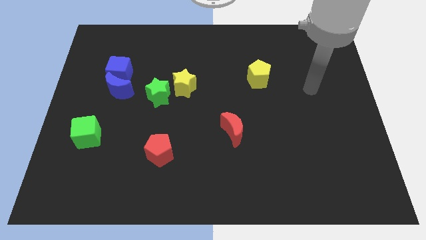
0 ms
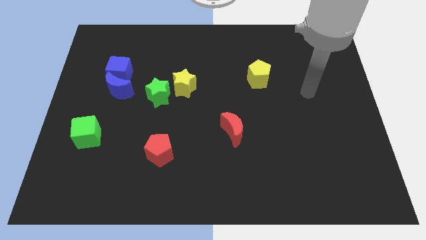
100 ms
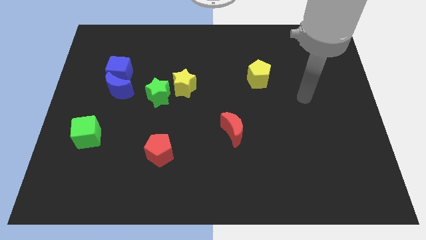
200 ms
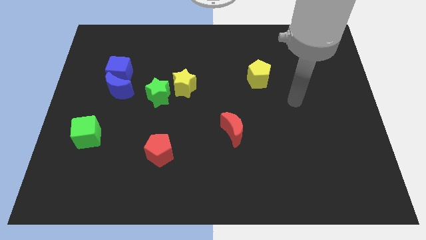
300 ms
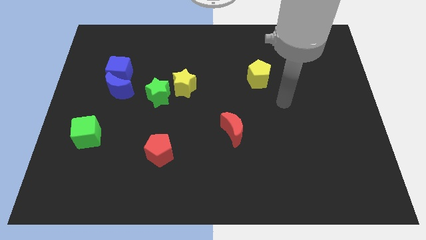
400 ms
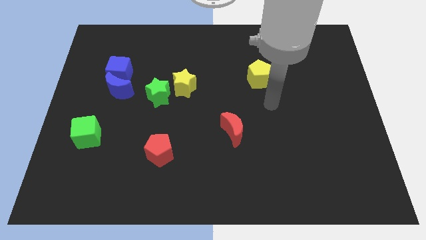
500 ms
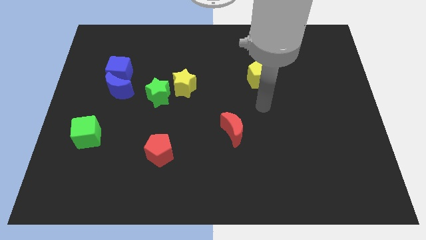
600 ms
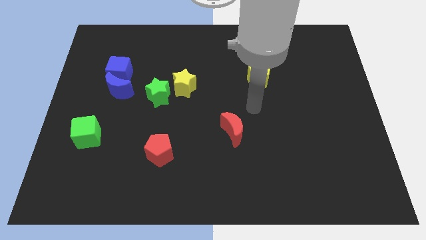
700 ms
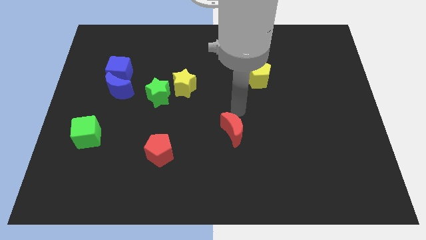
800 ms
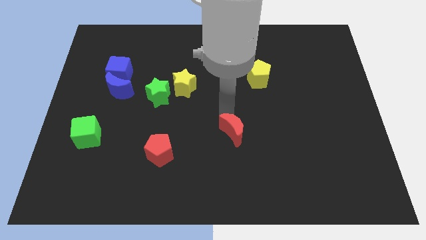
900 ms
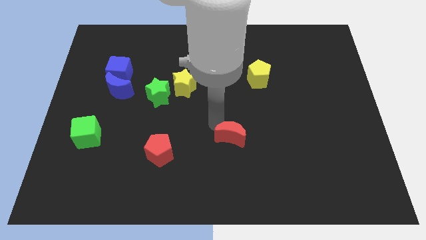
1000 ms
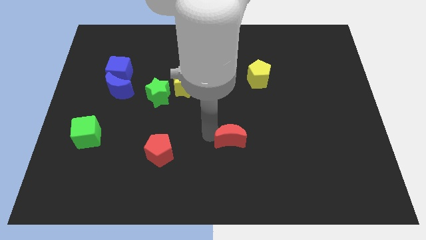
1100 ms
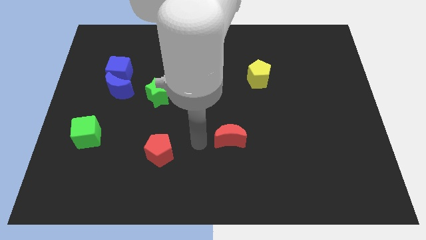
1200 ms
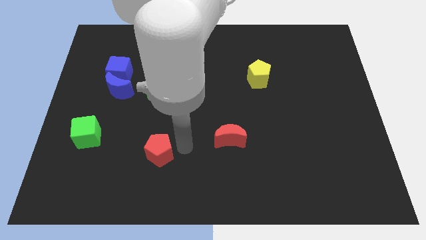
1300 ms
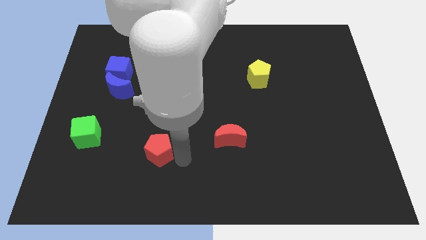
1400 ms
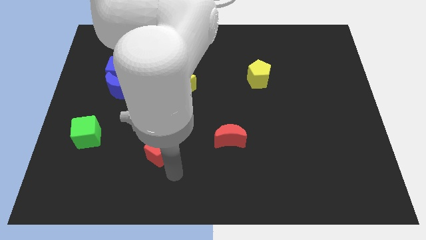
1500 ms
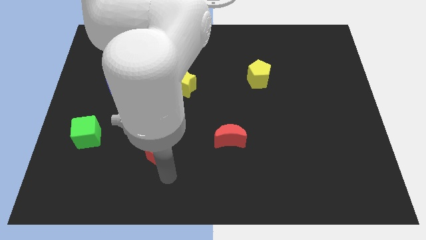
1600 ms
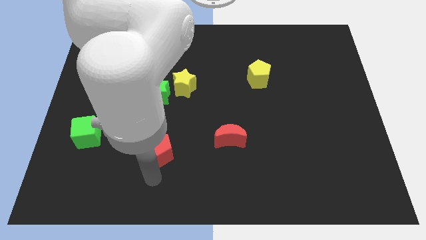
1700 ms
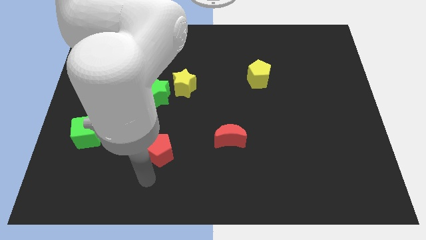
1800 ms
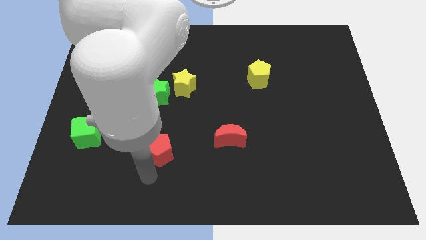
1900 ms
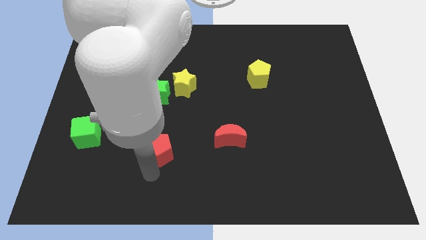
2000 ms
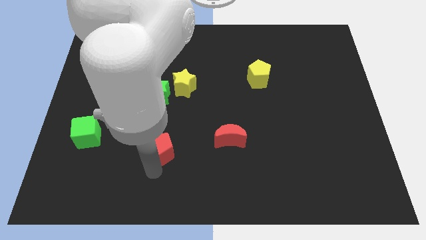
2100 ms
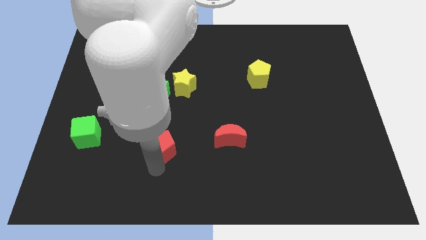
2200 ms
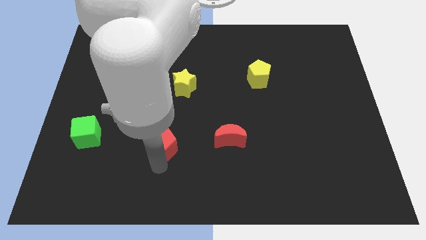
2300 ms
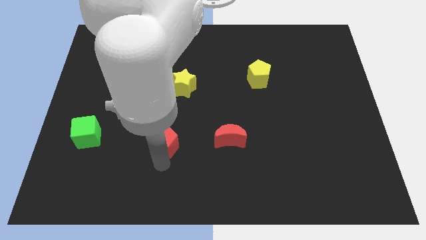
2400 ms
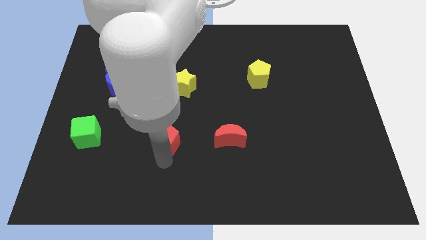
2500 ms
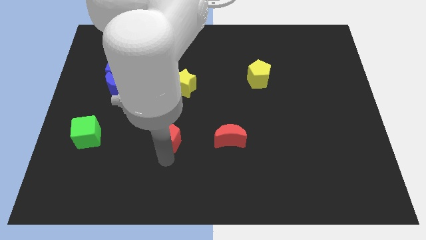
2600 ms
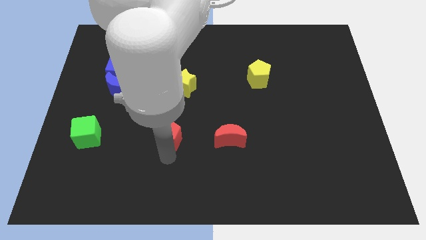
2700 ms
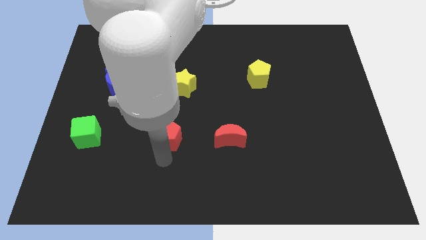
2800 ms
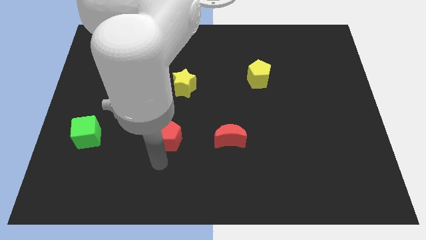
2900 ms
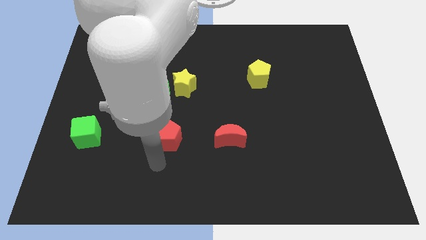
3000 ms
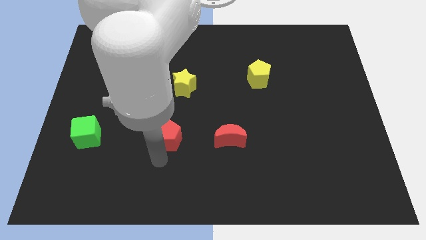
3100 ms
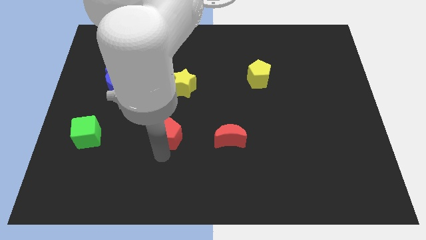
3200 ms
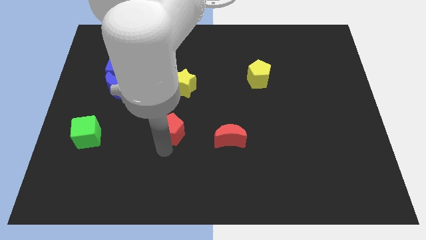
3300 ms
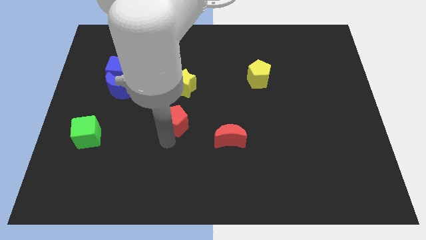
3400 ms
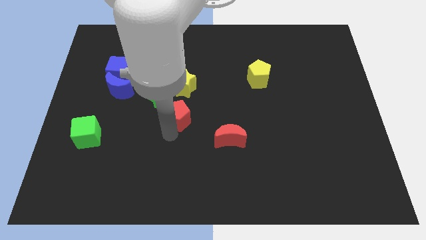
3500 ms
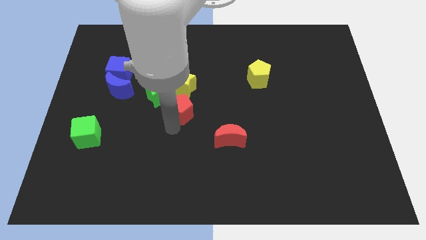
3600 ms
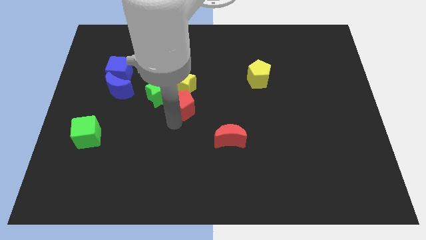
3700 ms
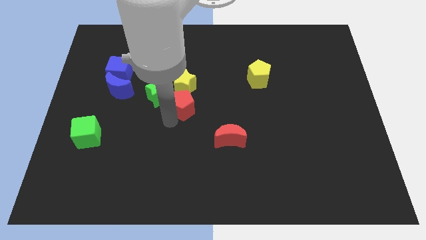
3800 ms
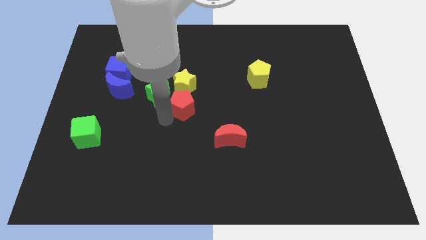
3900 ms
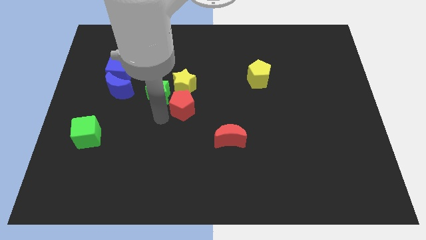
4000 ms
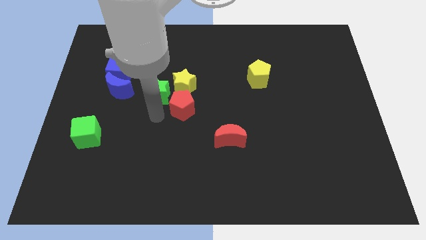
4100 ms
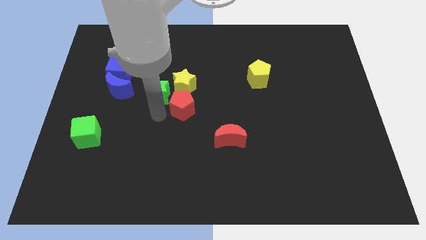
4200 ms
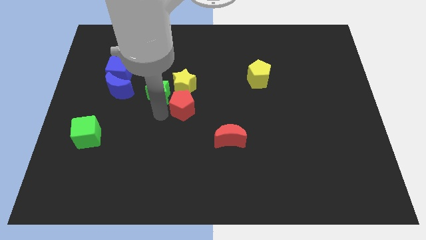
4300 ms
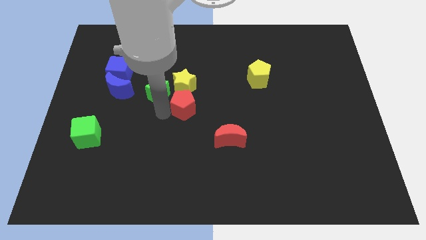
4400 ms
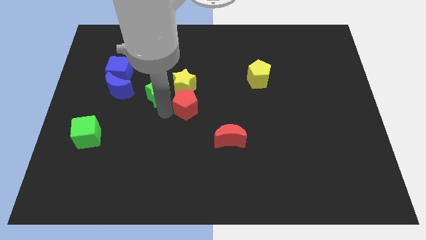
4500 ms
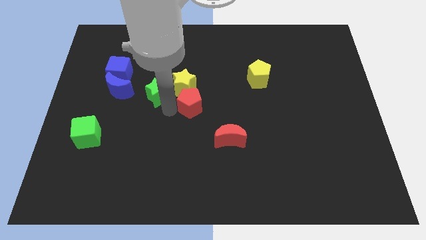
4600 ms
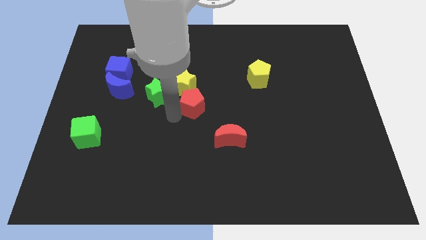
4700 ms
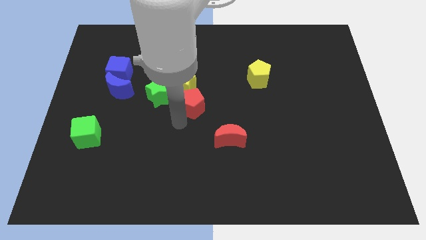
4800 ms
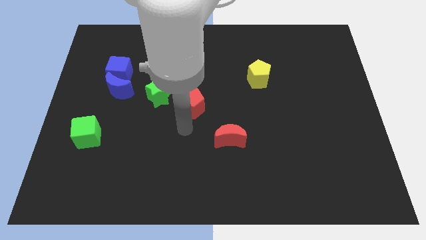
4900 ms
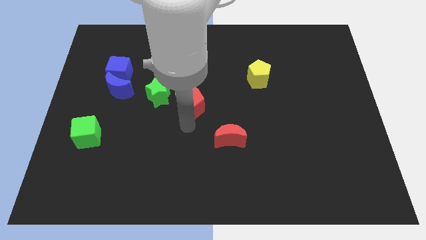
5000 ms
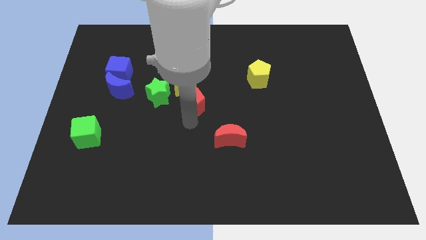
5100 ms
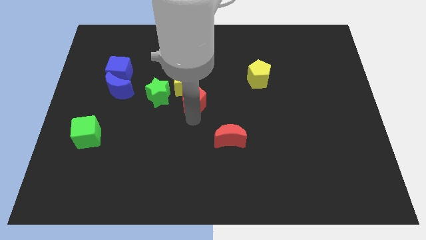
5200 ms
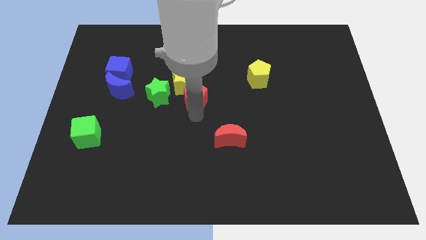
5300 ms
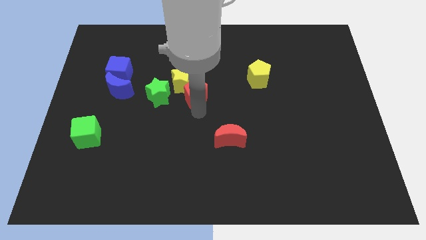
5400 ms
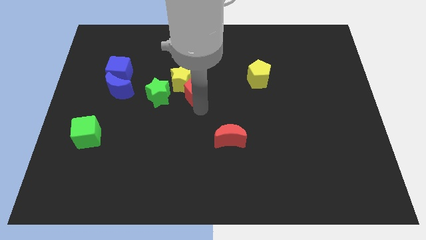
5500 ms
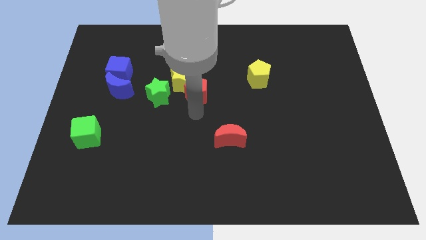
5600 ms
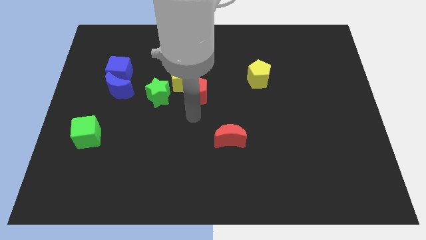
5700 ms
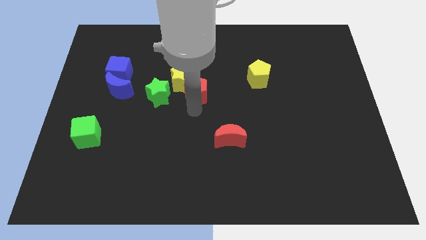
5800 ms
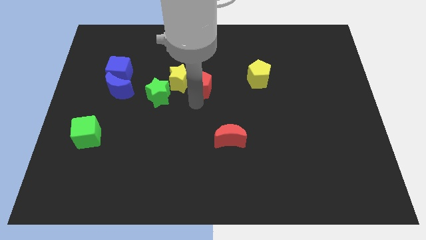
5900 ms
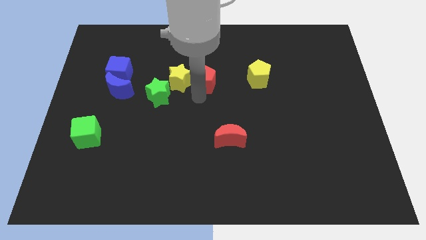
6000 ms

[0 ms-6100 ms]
move the red pentagon to the top right of the yellow star
